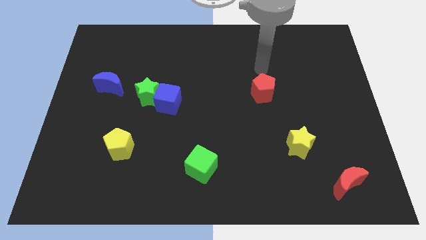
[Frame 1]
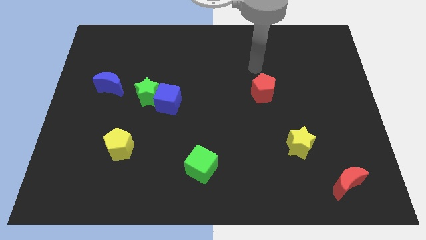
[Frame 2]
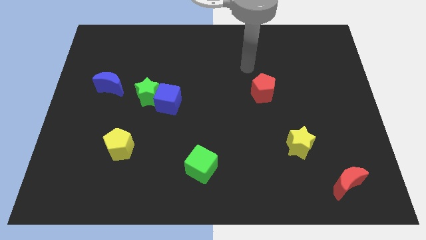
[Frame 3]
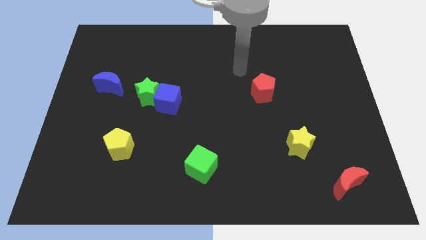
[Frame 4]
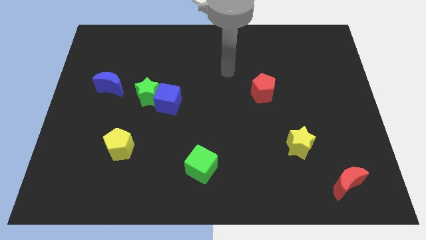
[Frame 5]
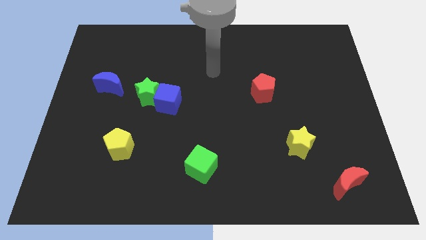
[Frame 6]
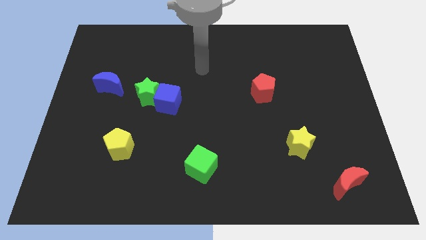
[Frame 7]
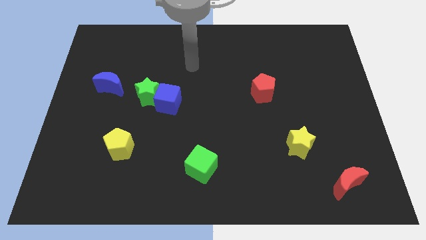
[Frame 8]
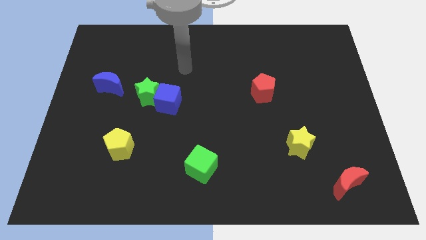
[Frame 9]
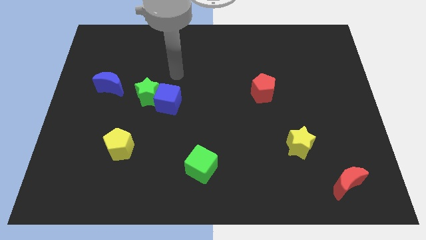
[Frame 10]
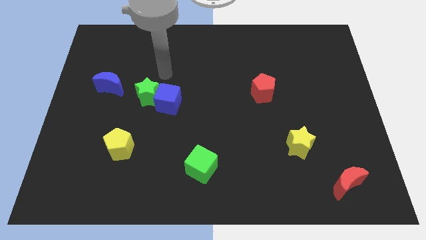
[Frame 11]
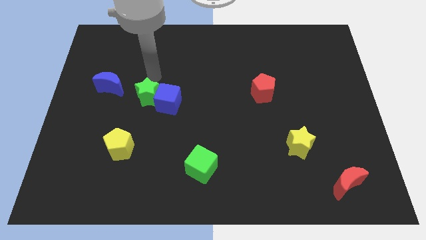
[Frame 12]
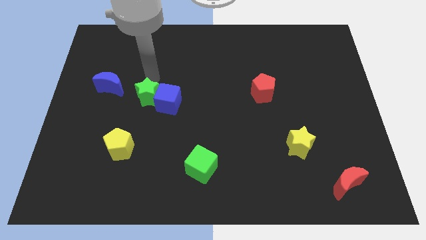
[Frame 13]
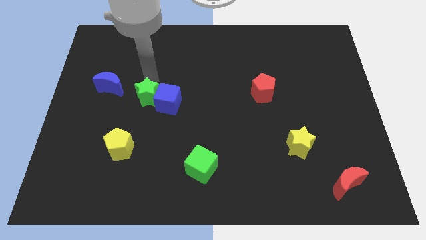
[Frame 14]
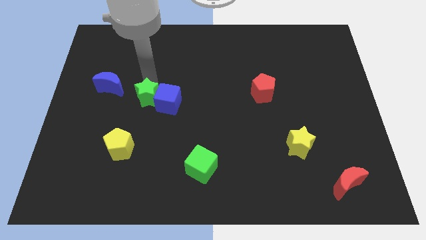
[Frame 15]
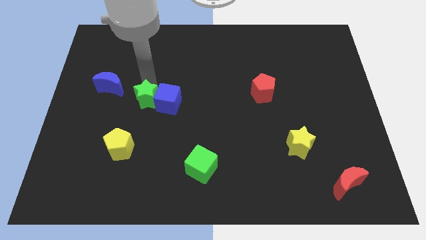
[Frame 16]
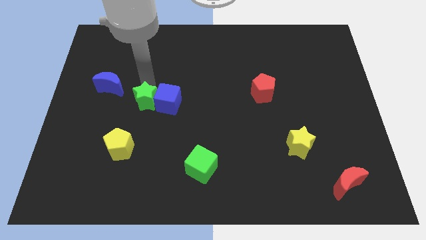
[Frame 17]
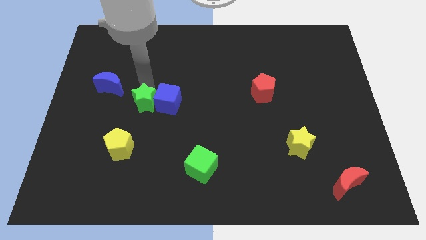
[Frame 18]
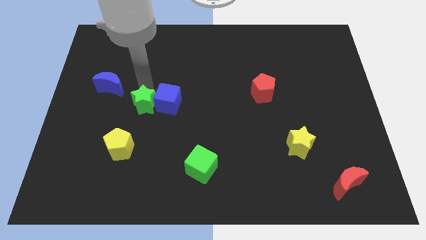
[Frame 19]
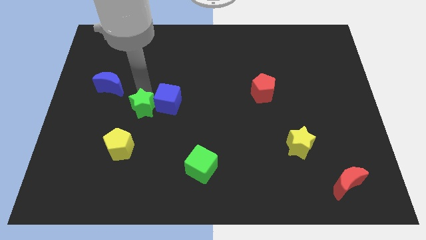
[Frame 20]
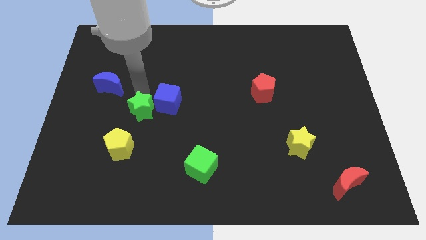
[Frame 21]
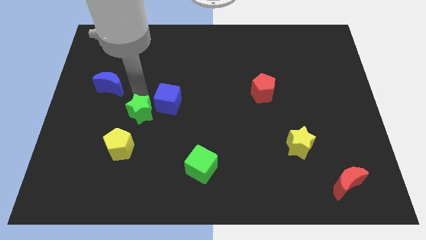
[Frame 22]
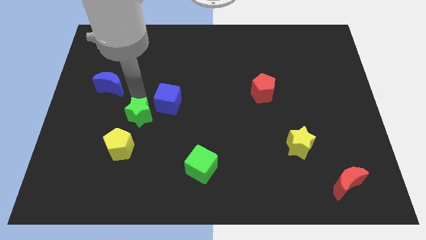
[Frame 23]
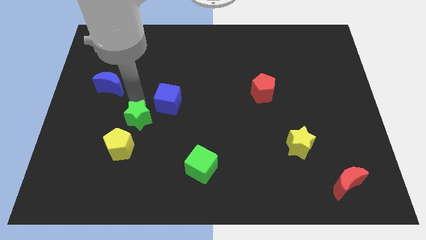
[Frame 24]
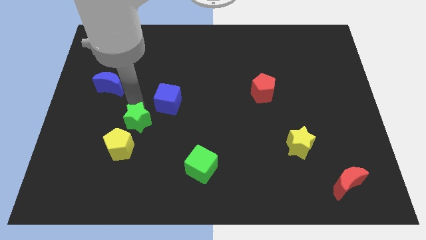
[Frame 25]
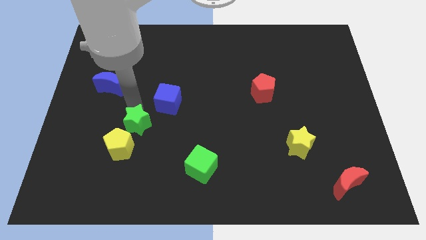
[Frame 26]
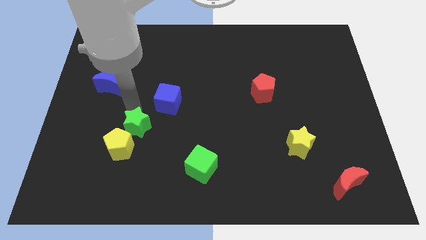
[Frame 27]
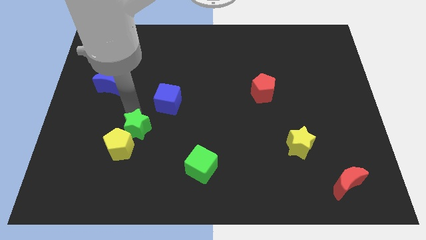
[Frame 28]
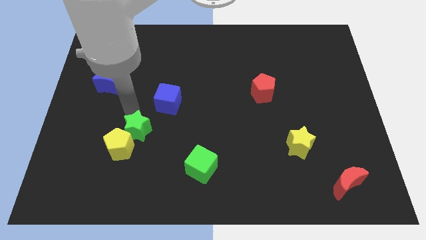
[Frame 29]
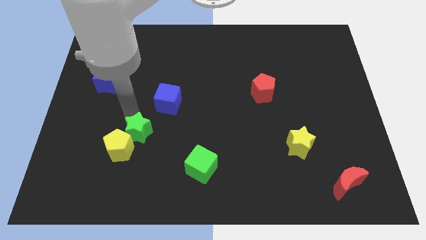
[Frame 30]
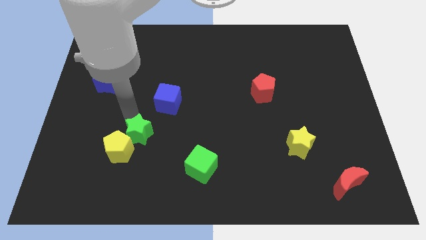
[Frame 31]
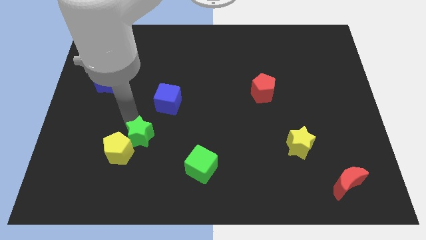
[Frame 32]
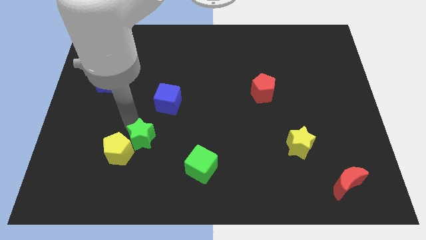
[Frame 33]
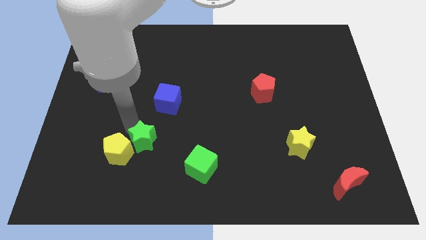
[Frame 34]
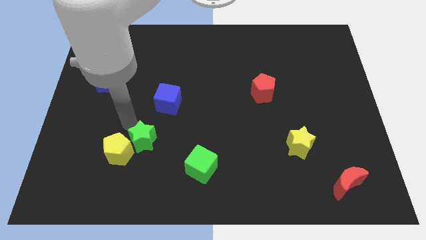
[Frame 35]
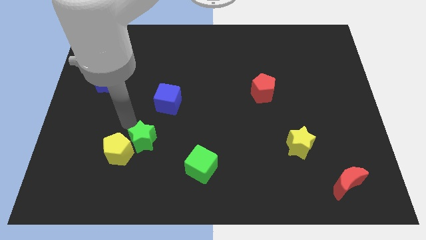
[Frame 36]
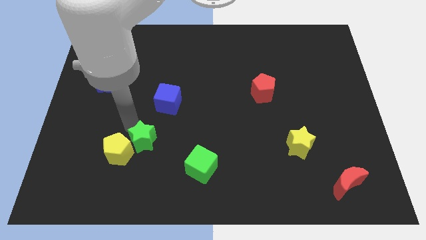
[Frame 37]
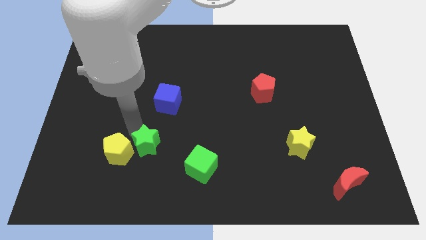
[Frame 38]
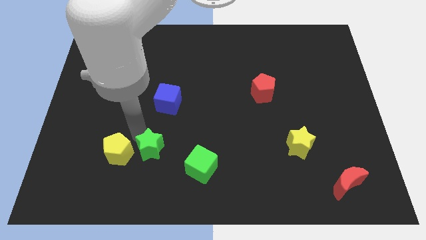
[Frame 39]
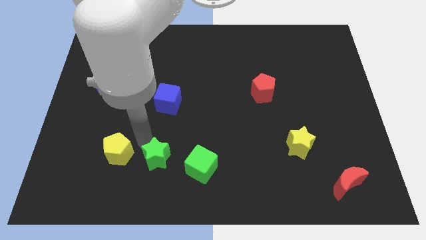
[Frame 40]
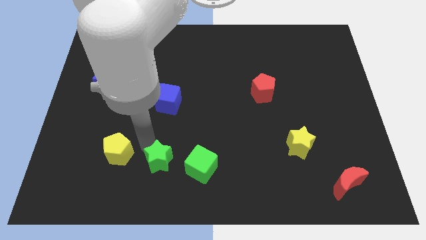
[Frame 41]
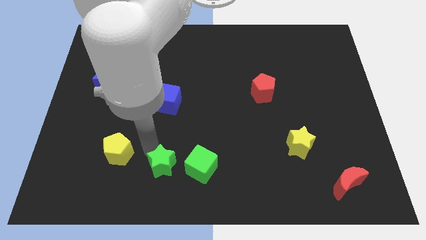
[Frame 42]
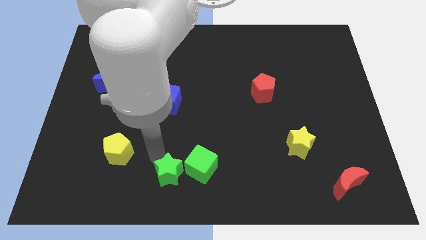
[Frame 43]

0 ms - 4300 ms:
put the green star to the bottom

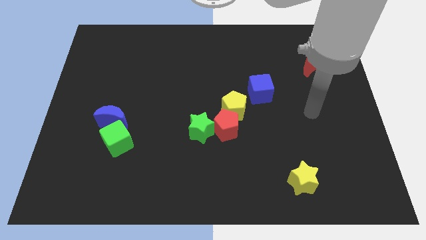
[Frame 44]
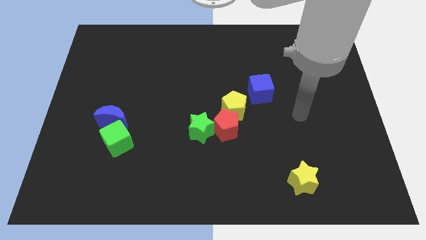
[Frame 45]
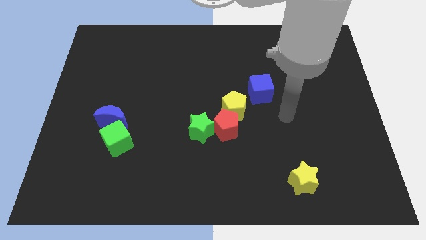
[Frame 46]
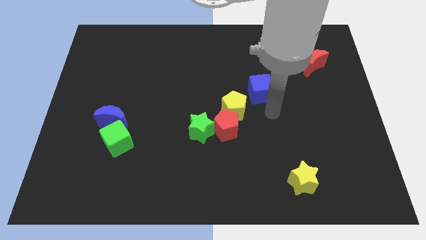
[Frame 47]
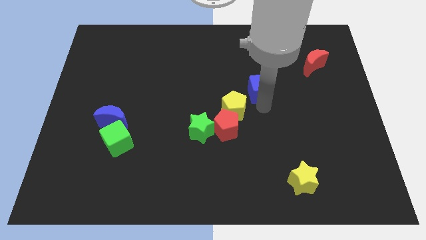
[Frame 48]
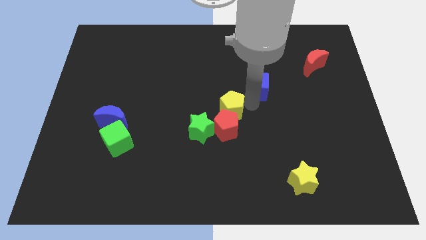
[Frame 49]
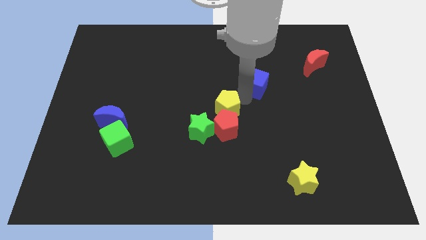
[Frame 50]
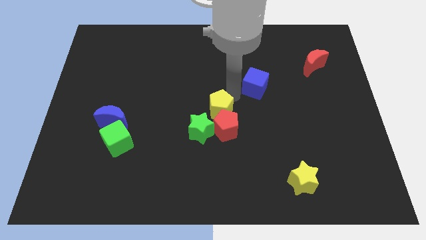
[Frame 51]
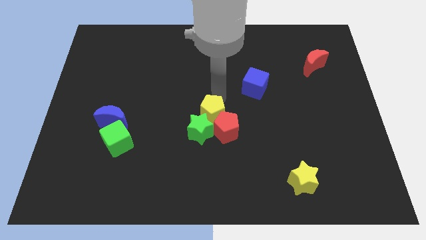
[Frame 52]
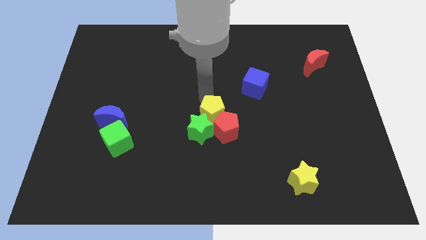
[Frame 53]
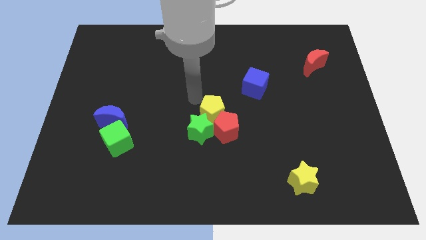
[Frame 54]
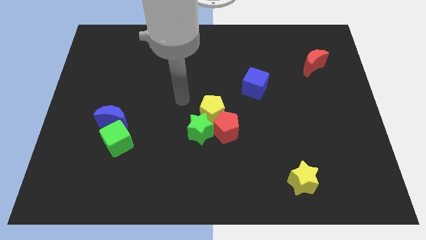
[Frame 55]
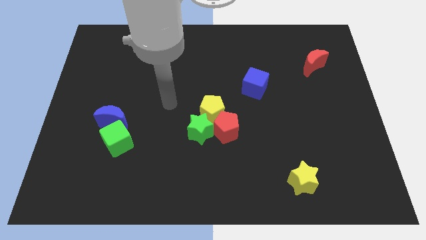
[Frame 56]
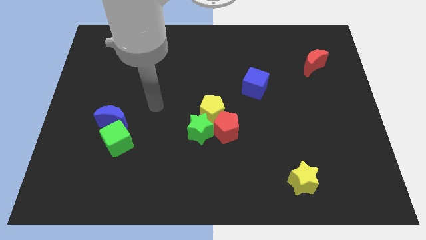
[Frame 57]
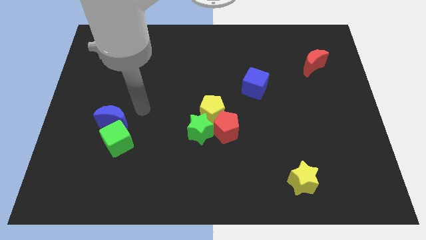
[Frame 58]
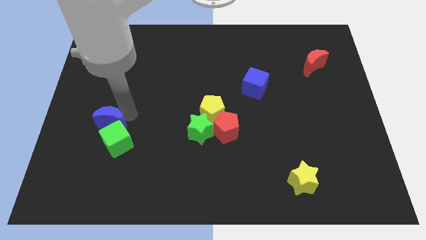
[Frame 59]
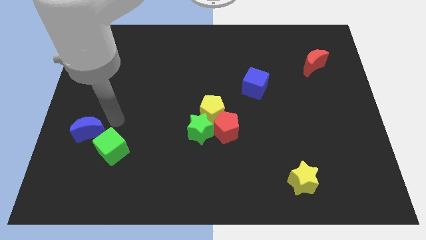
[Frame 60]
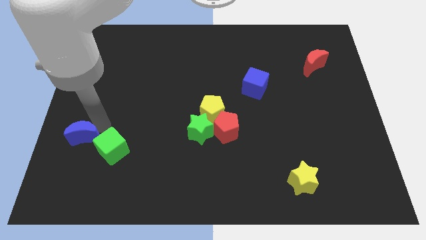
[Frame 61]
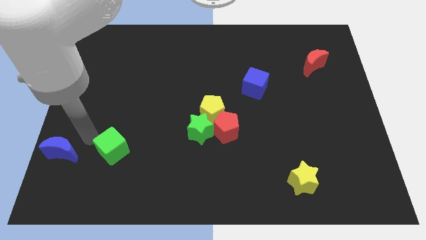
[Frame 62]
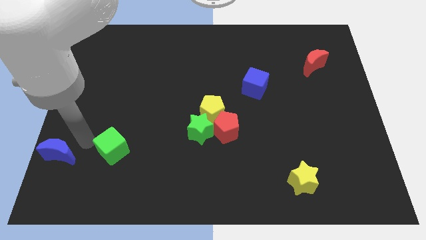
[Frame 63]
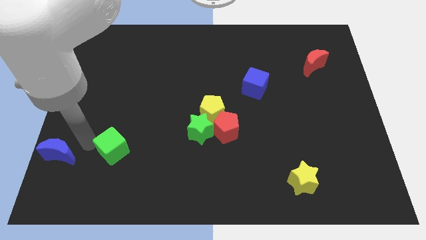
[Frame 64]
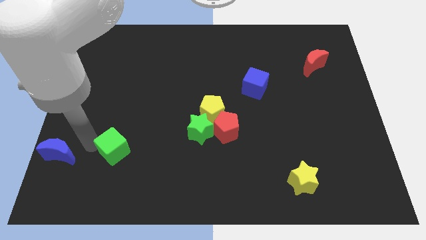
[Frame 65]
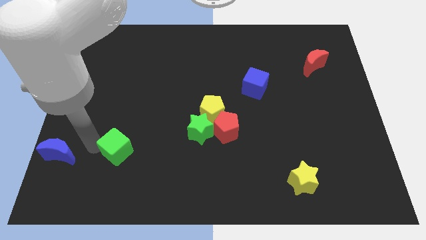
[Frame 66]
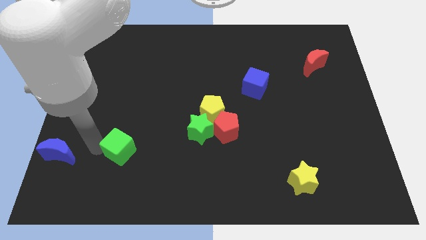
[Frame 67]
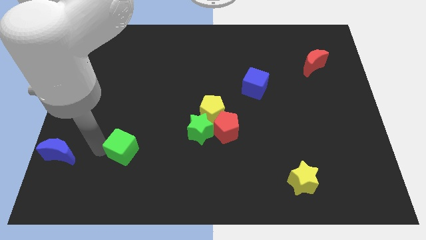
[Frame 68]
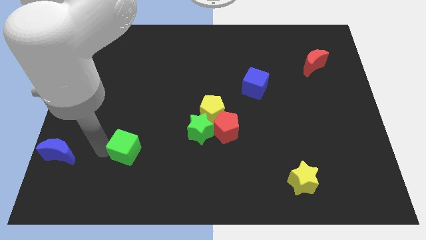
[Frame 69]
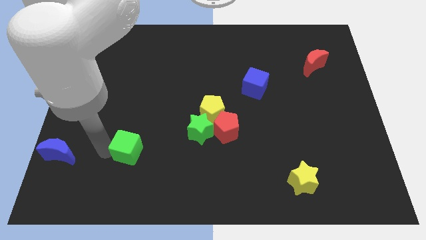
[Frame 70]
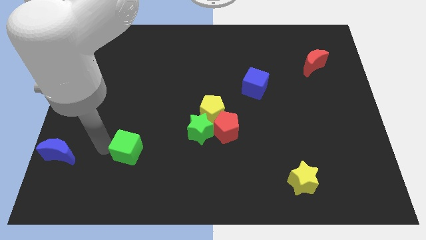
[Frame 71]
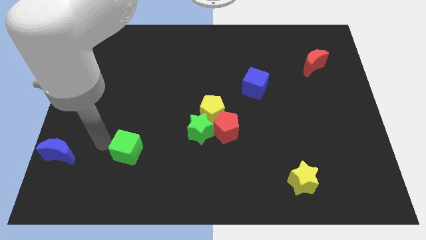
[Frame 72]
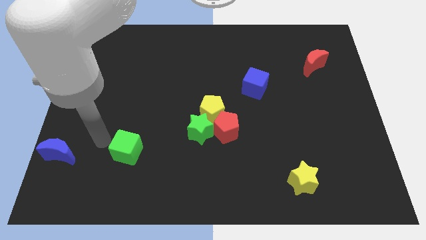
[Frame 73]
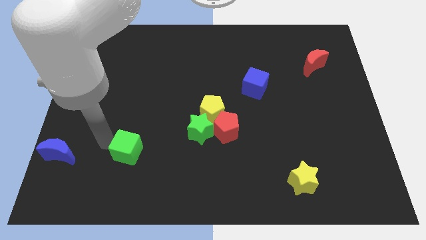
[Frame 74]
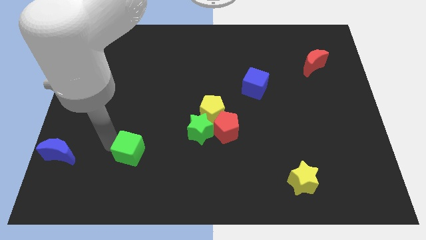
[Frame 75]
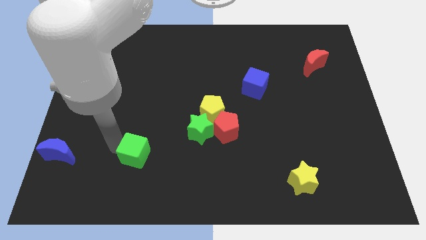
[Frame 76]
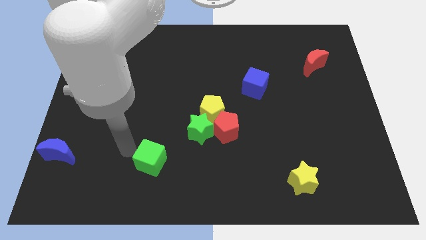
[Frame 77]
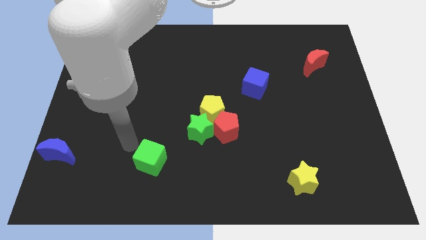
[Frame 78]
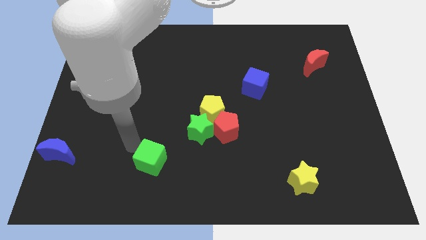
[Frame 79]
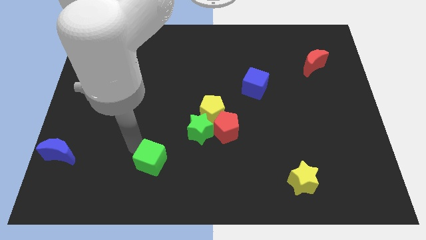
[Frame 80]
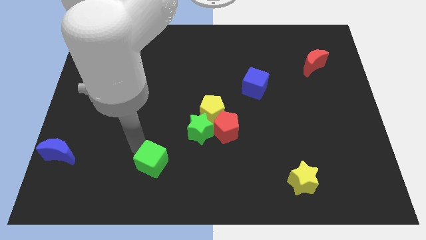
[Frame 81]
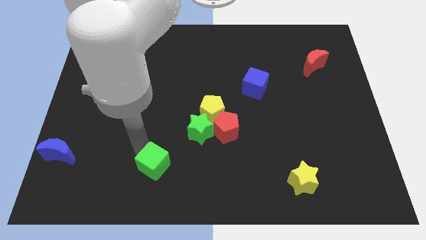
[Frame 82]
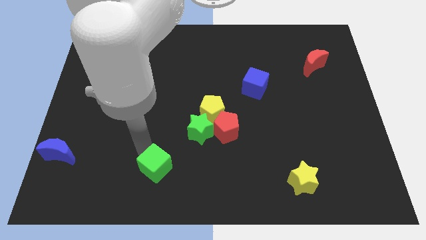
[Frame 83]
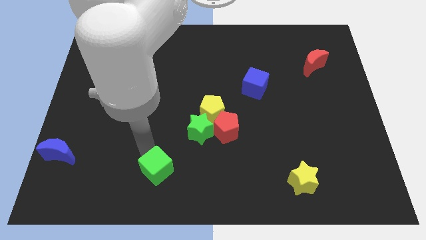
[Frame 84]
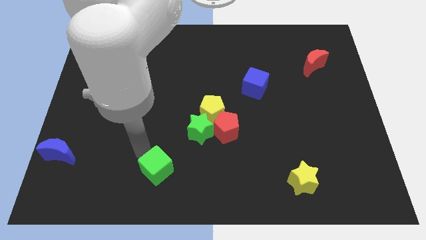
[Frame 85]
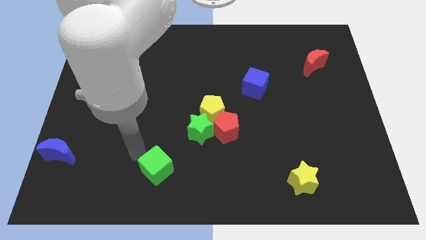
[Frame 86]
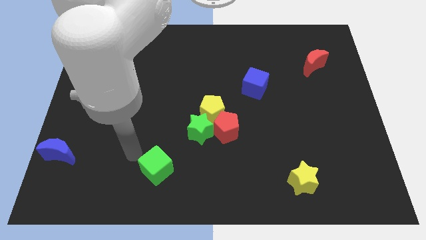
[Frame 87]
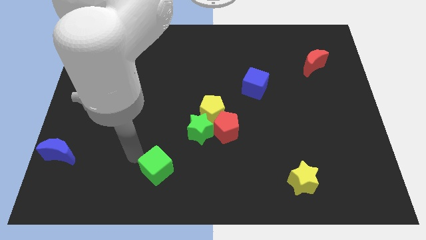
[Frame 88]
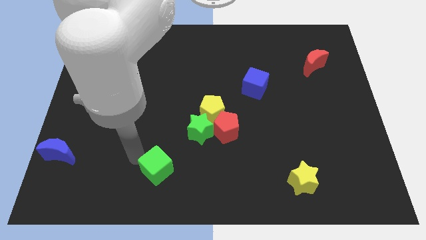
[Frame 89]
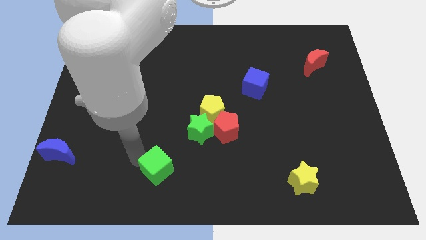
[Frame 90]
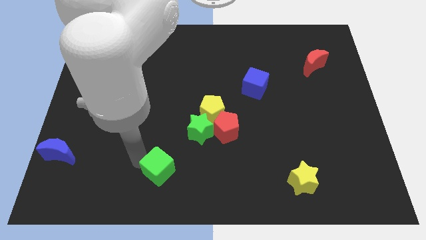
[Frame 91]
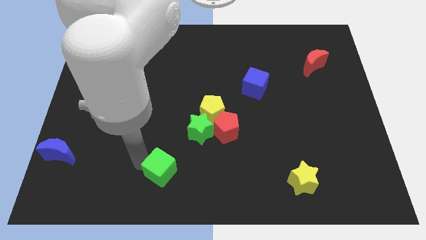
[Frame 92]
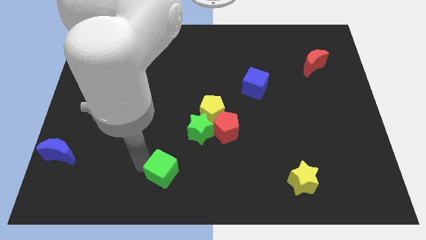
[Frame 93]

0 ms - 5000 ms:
put the green cube to the bottom
